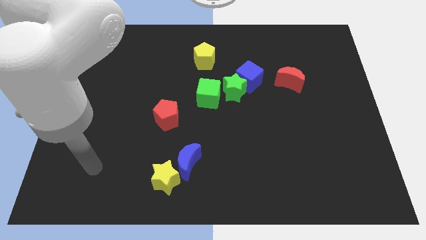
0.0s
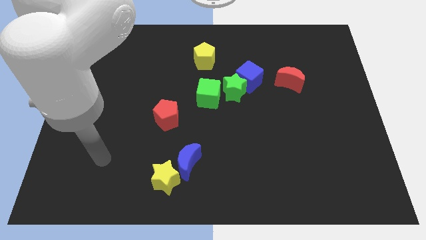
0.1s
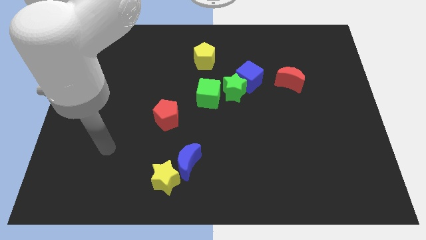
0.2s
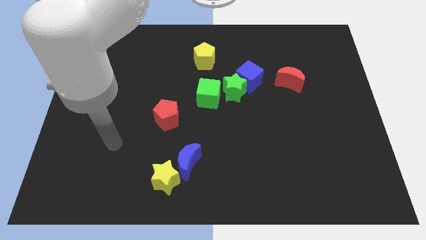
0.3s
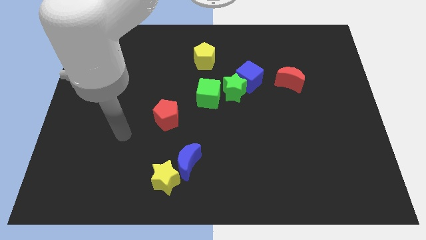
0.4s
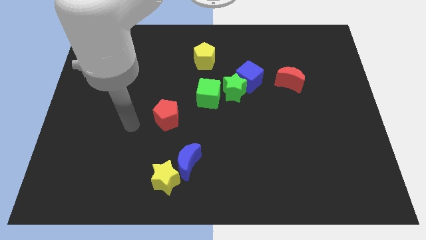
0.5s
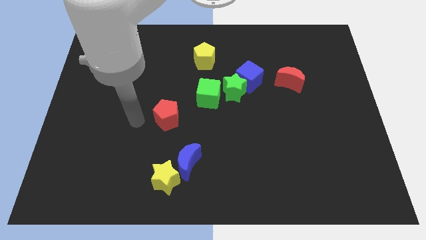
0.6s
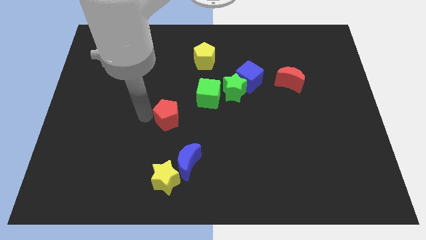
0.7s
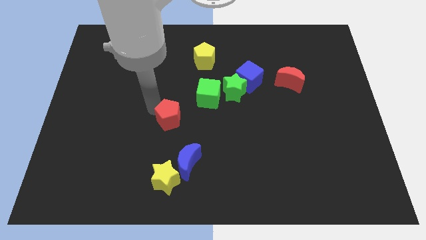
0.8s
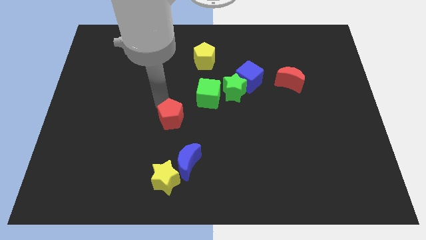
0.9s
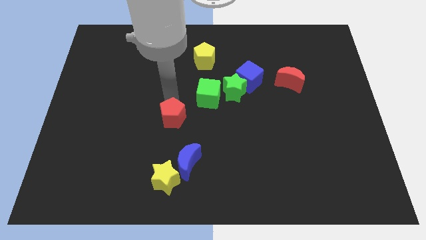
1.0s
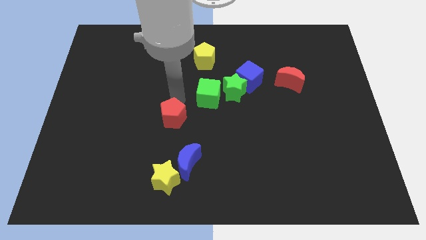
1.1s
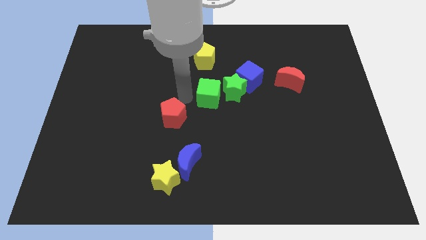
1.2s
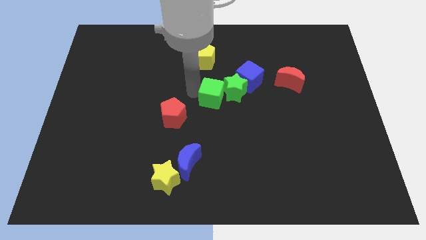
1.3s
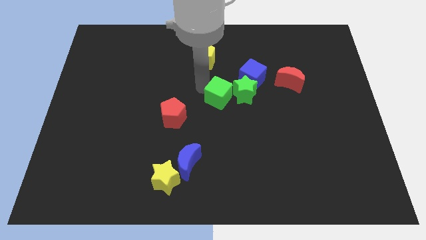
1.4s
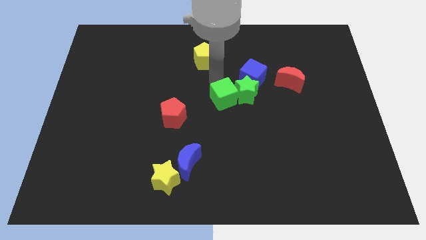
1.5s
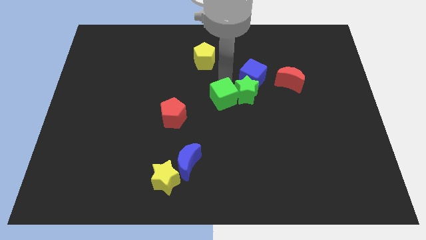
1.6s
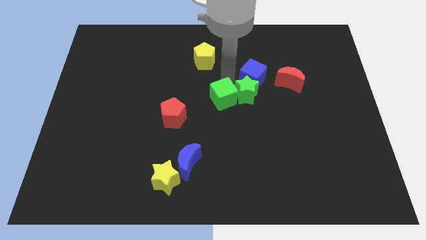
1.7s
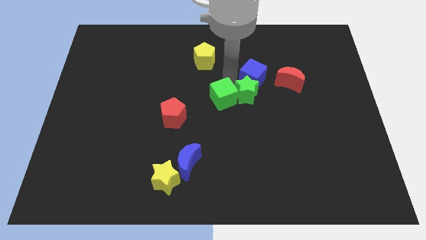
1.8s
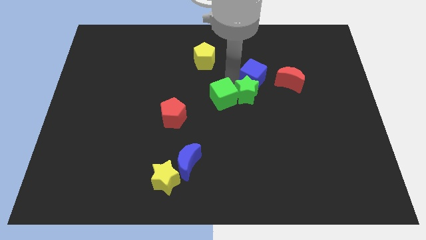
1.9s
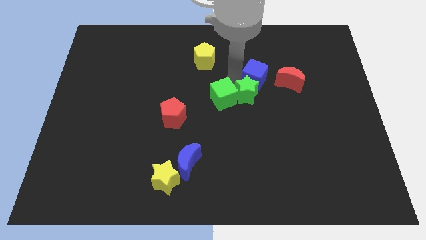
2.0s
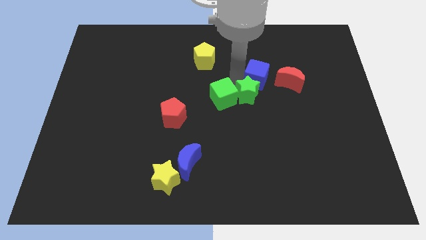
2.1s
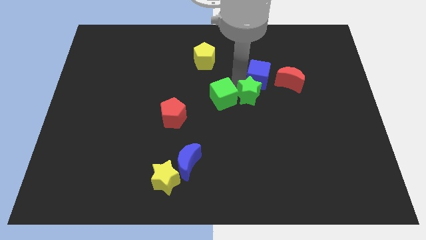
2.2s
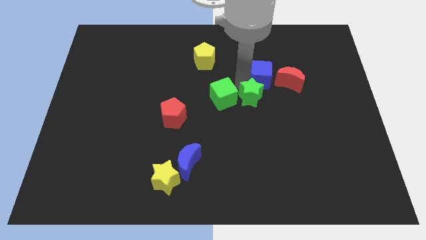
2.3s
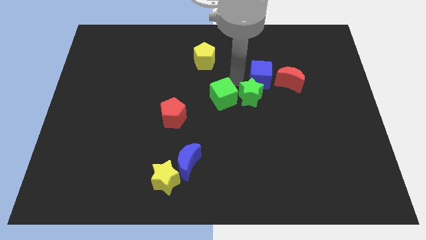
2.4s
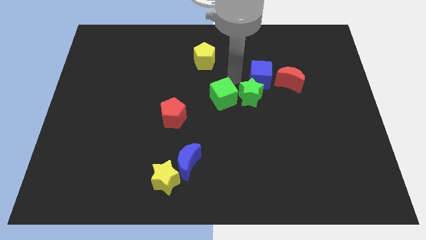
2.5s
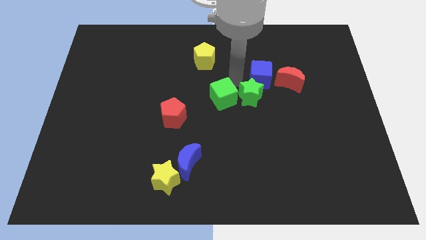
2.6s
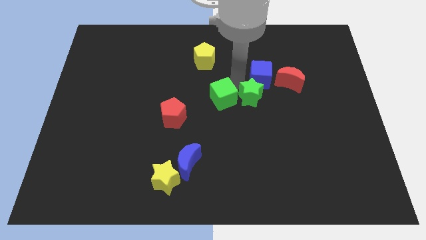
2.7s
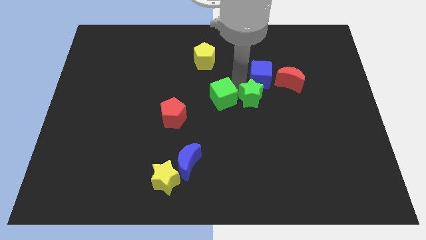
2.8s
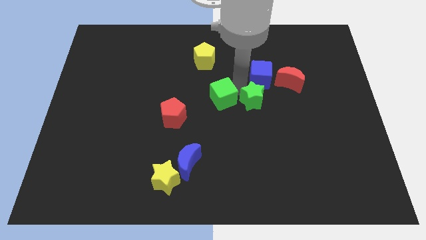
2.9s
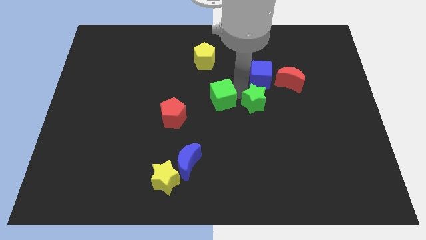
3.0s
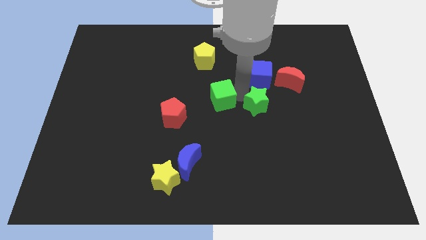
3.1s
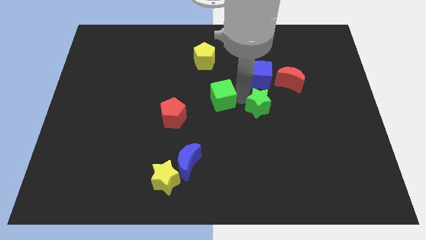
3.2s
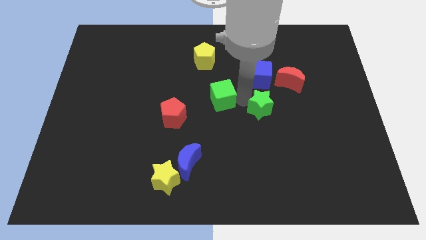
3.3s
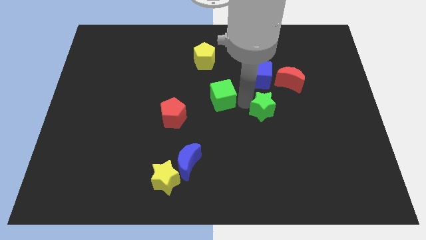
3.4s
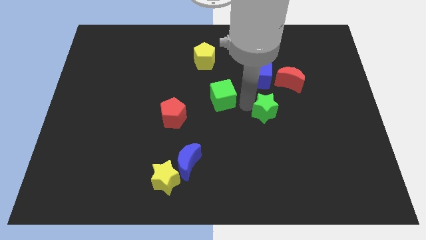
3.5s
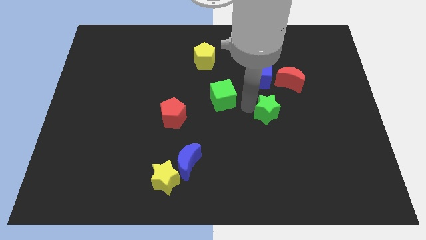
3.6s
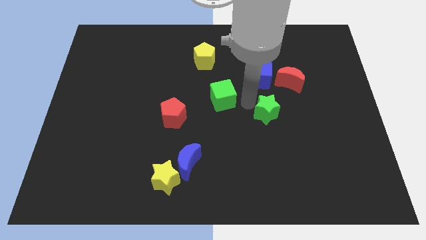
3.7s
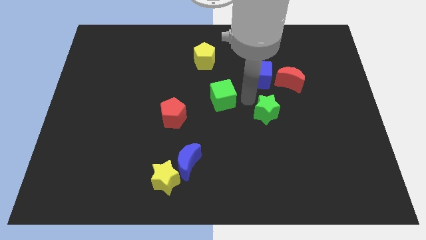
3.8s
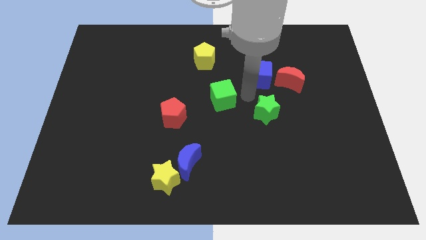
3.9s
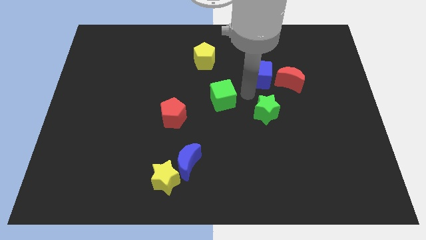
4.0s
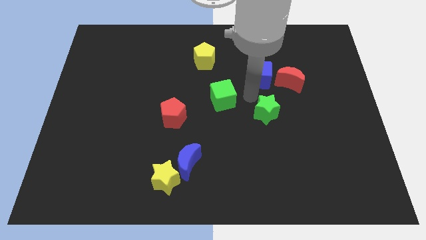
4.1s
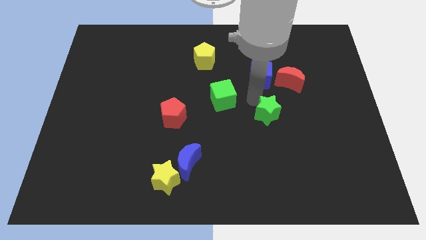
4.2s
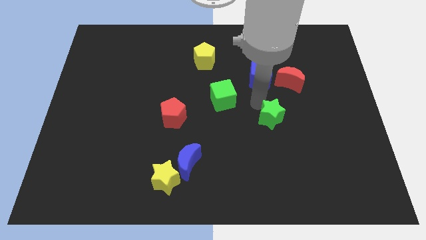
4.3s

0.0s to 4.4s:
pull the green star apart from the blue cube and green cube

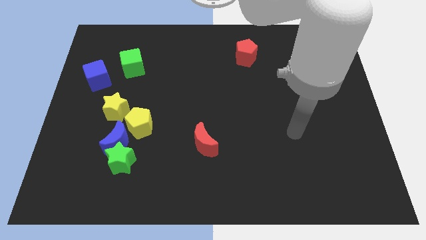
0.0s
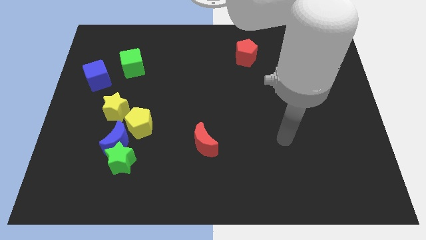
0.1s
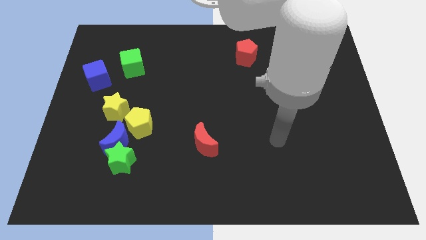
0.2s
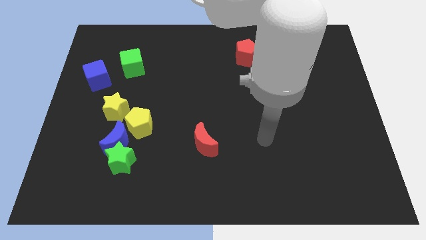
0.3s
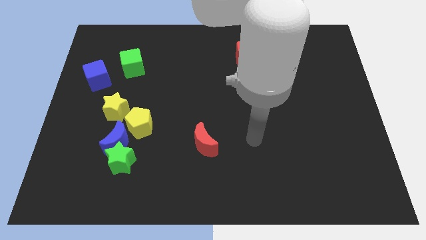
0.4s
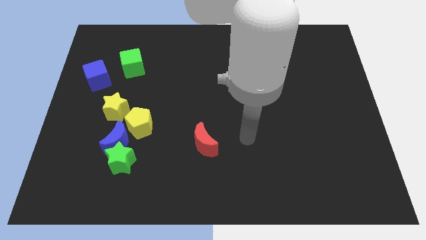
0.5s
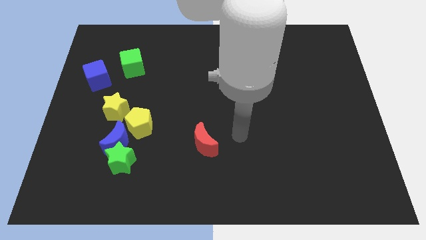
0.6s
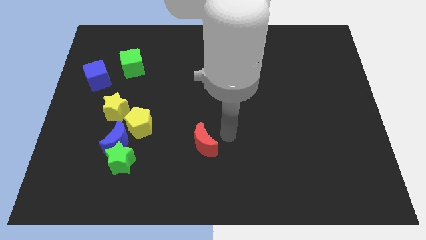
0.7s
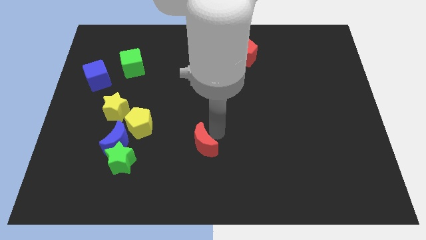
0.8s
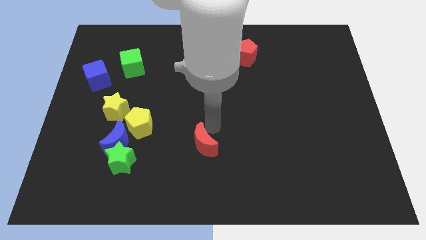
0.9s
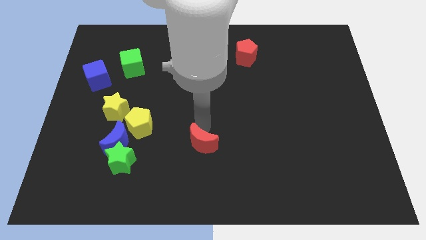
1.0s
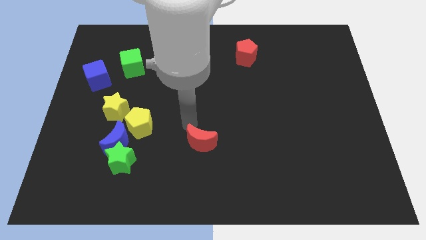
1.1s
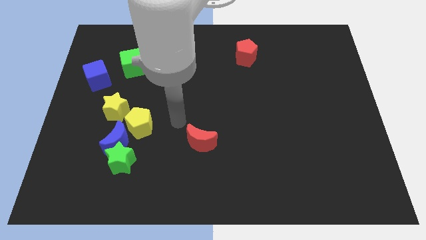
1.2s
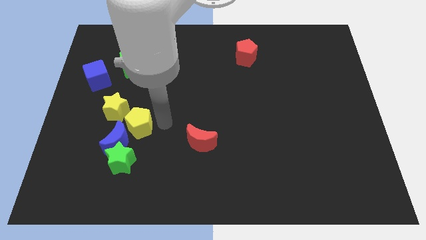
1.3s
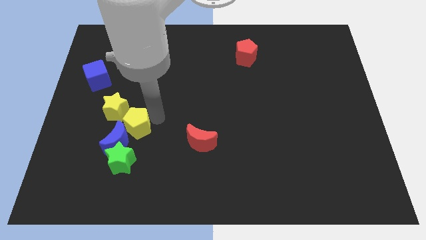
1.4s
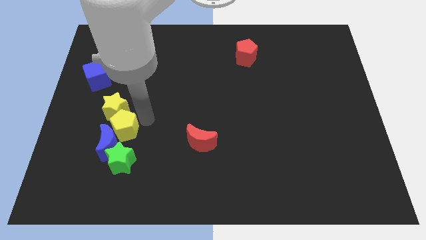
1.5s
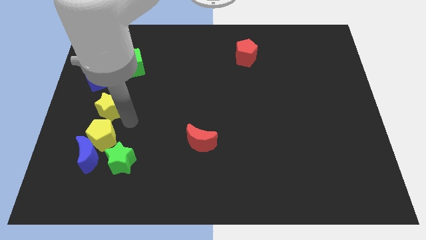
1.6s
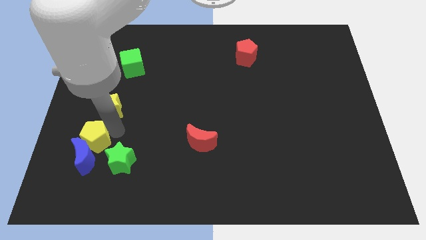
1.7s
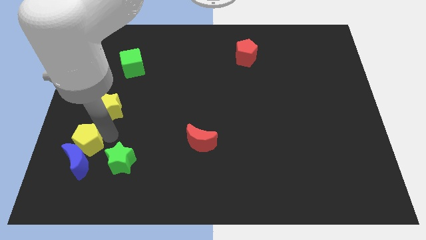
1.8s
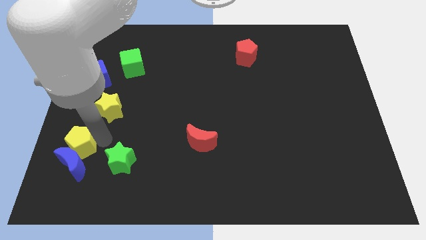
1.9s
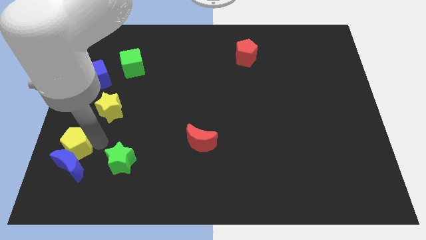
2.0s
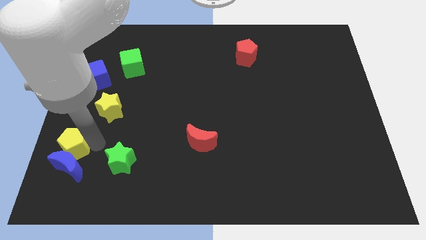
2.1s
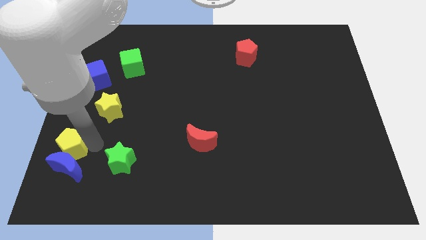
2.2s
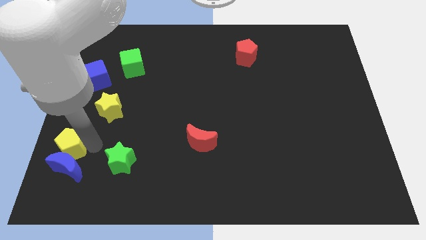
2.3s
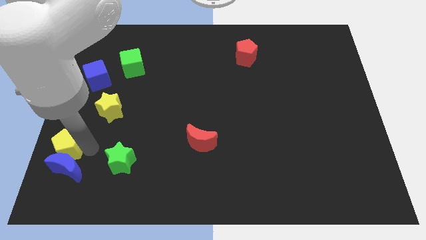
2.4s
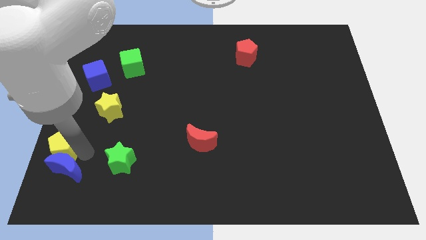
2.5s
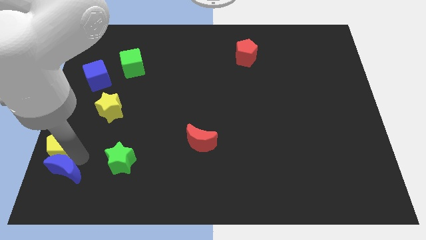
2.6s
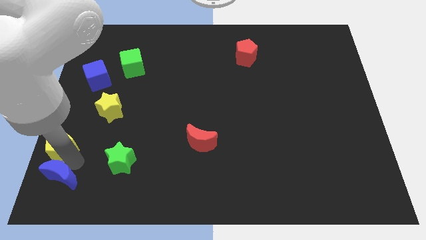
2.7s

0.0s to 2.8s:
pull the blue moon apart from the group

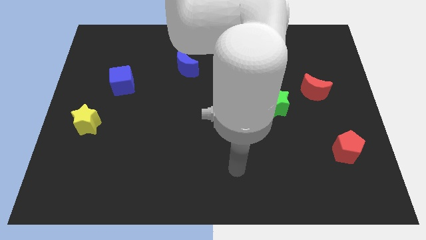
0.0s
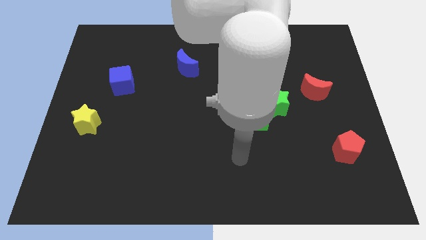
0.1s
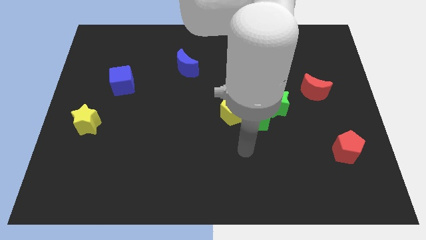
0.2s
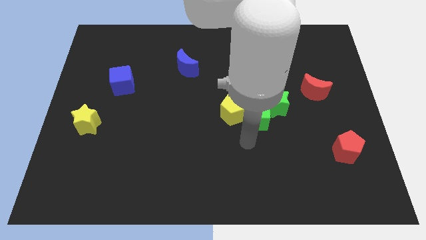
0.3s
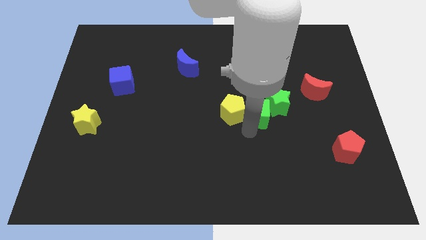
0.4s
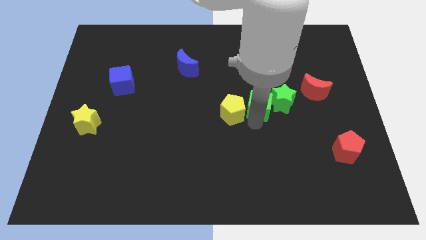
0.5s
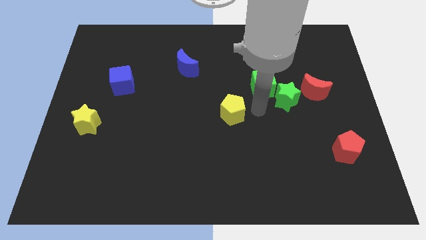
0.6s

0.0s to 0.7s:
move the yellow pentagon away from the green cube

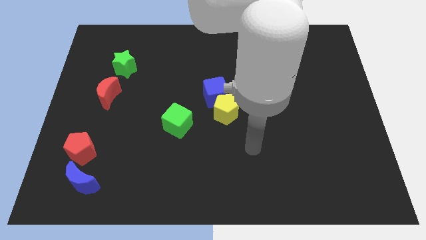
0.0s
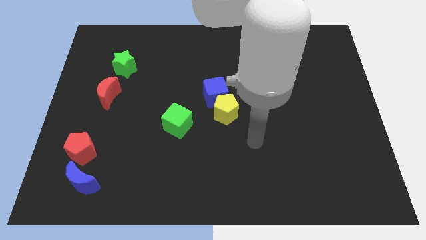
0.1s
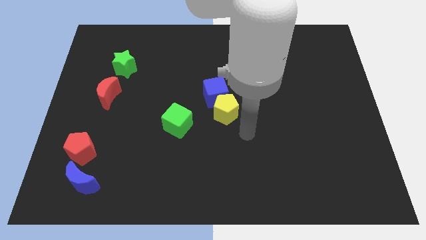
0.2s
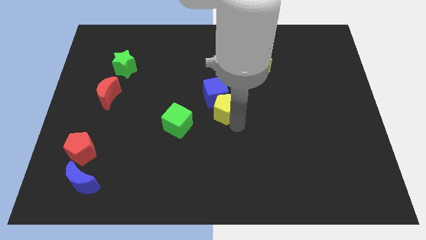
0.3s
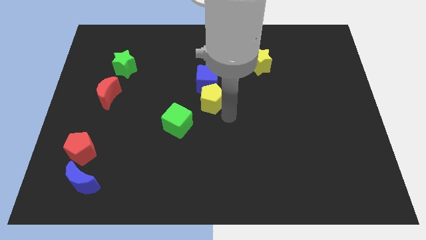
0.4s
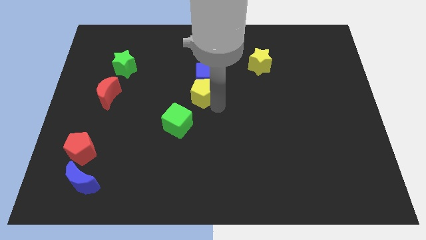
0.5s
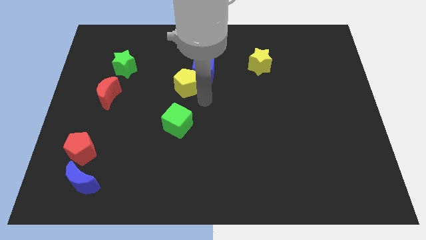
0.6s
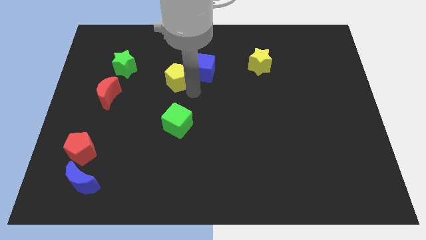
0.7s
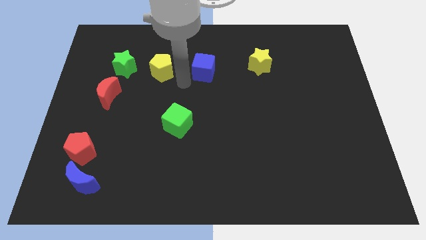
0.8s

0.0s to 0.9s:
separate the blue cube from the yellow pentagon

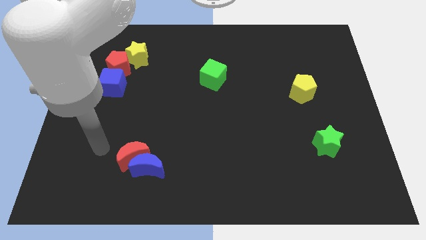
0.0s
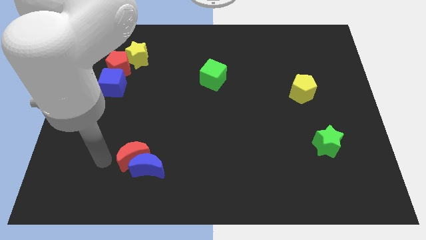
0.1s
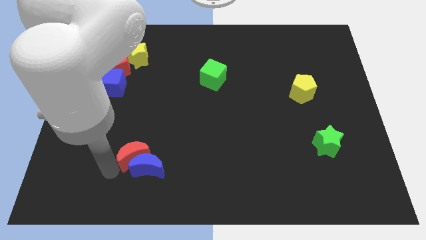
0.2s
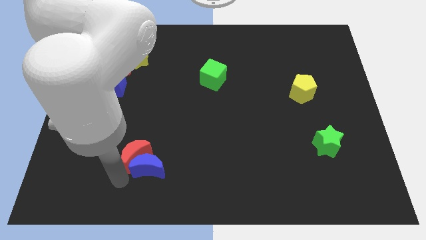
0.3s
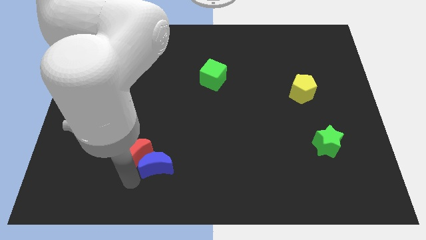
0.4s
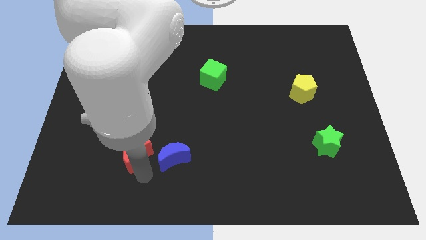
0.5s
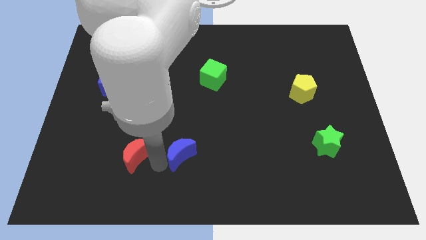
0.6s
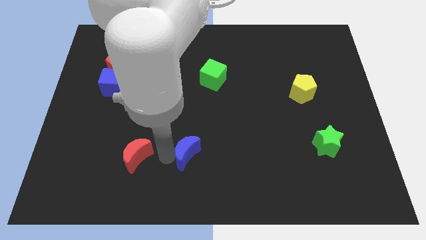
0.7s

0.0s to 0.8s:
separate the red moon from the blue moon
